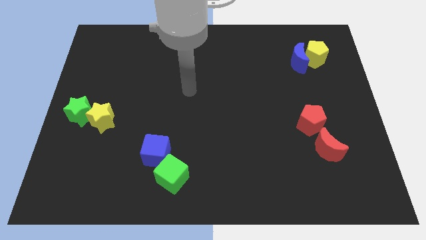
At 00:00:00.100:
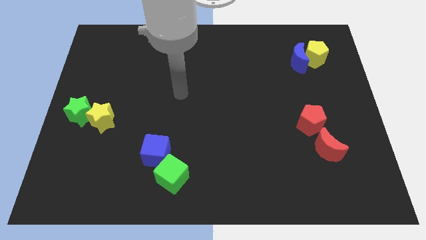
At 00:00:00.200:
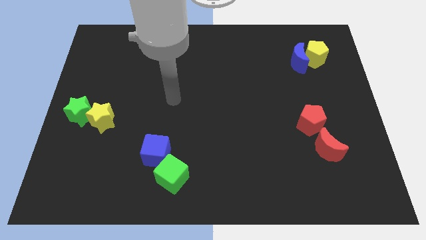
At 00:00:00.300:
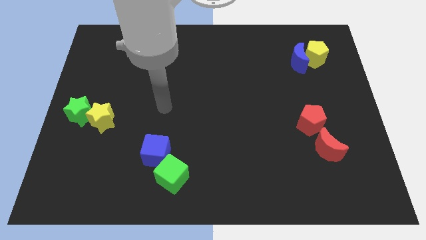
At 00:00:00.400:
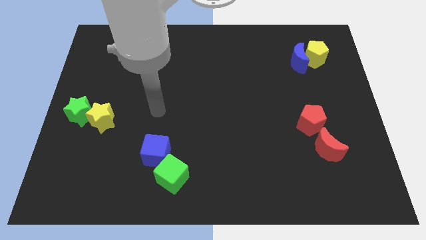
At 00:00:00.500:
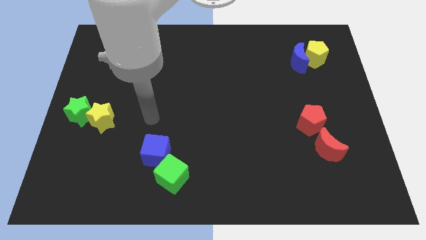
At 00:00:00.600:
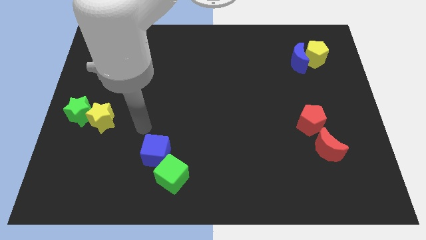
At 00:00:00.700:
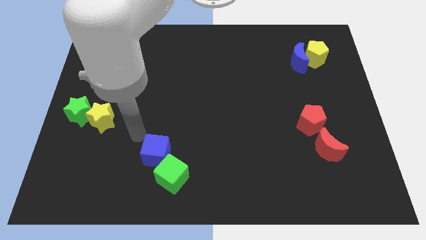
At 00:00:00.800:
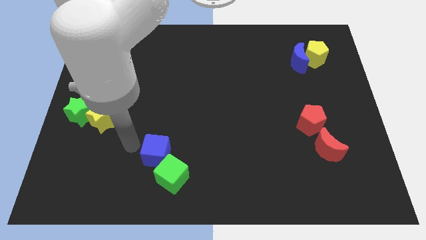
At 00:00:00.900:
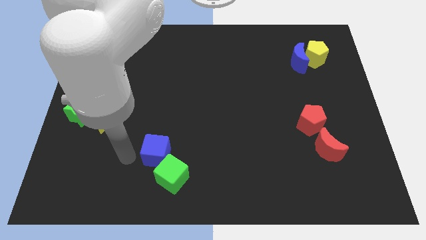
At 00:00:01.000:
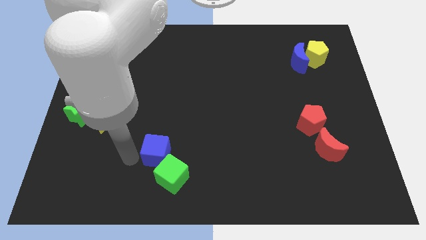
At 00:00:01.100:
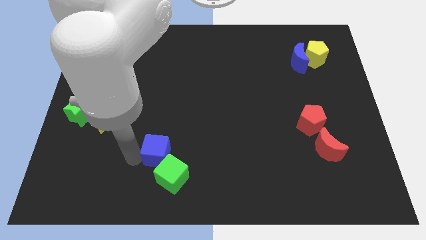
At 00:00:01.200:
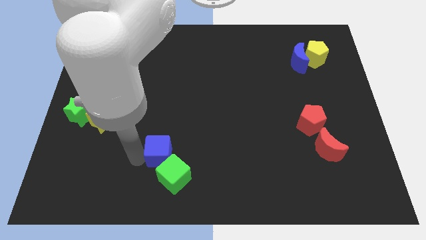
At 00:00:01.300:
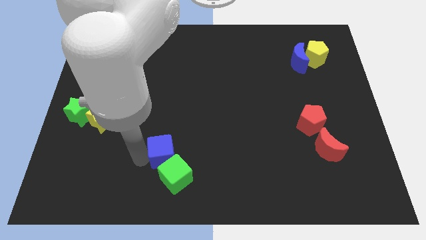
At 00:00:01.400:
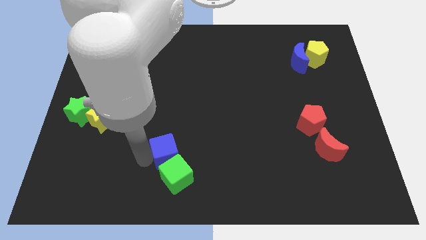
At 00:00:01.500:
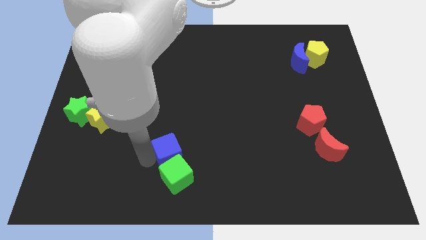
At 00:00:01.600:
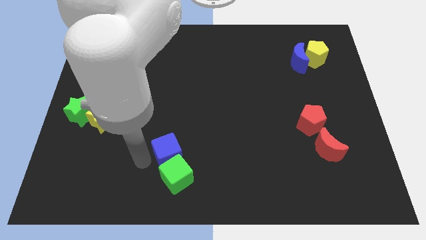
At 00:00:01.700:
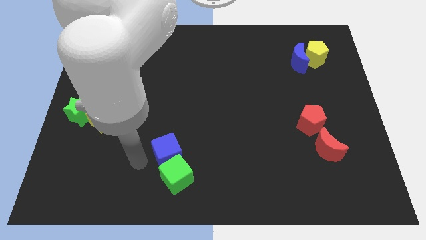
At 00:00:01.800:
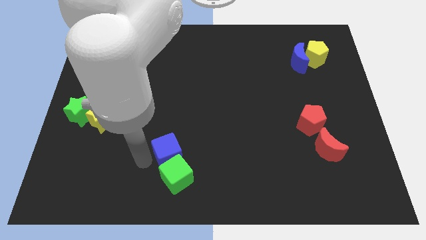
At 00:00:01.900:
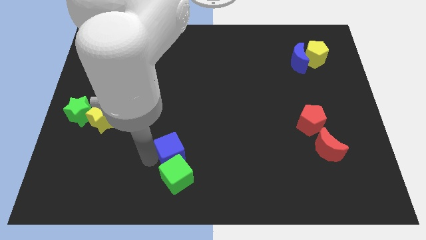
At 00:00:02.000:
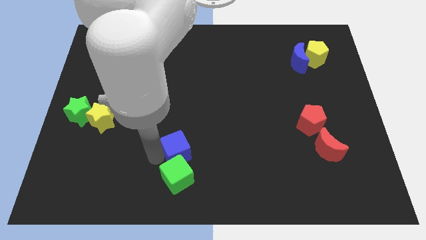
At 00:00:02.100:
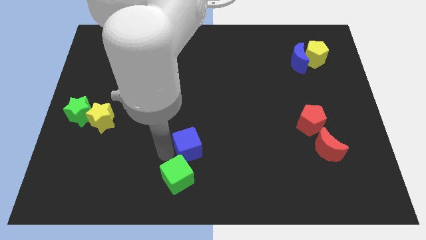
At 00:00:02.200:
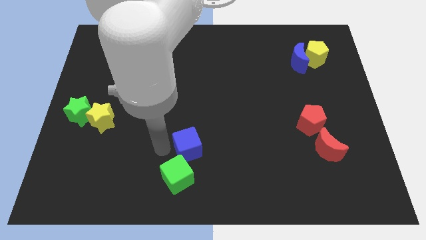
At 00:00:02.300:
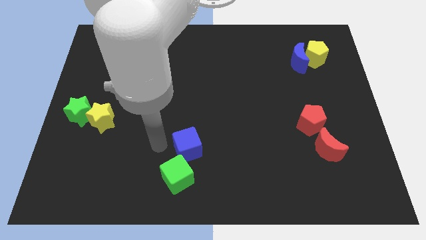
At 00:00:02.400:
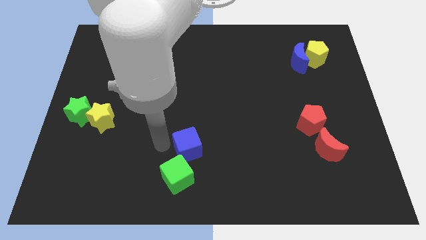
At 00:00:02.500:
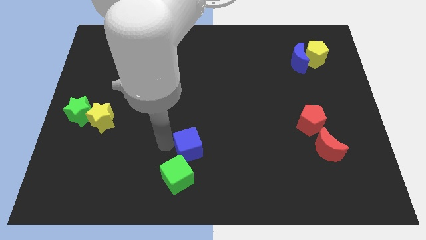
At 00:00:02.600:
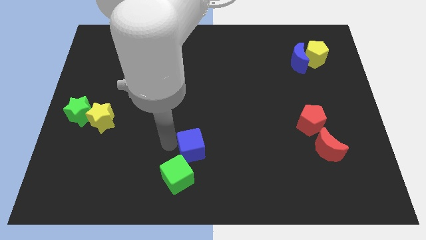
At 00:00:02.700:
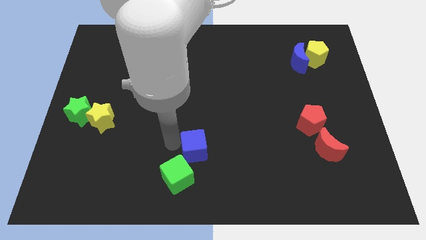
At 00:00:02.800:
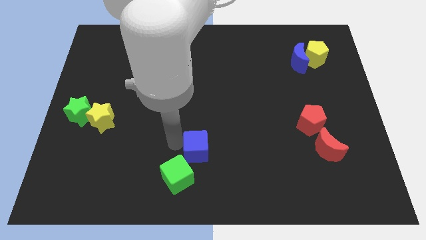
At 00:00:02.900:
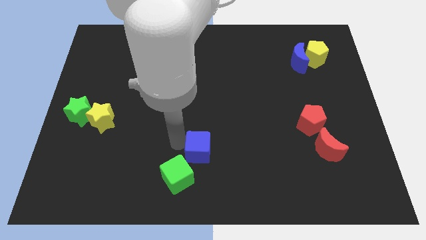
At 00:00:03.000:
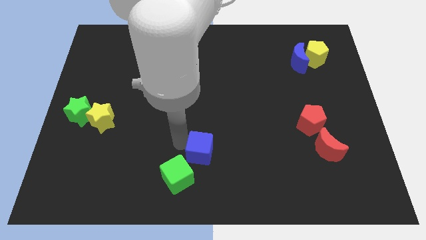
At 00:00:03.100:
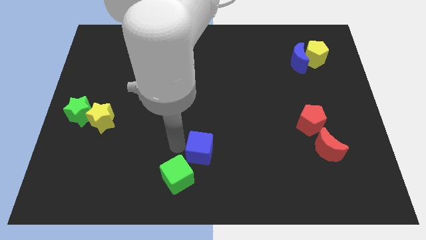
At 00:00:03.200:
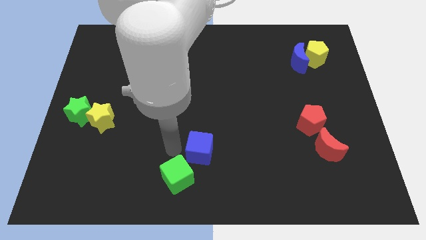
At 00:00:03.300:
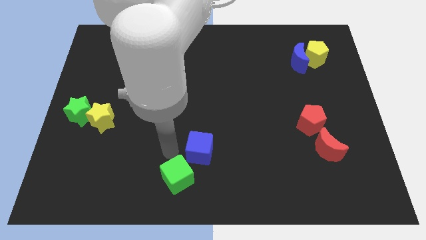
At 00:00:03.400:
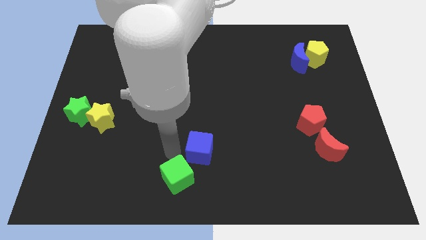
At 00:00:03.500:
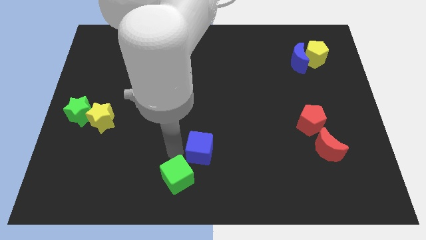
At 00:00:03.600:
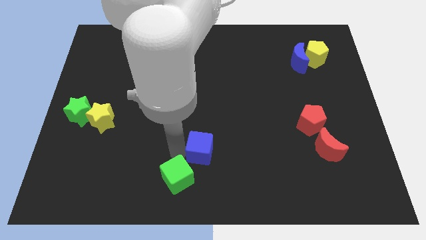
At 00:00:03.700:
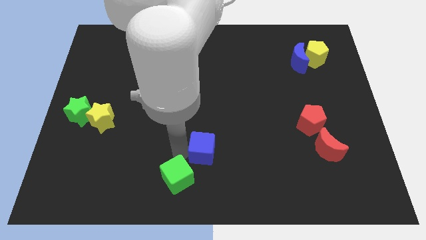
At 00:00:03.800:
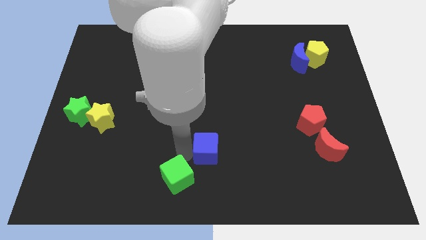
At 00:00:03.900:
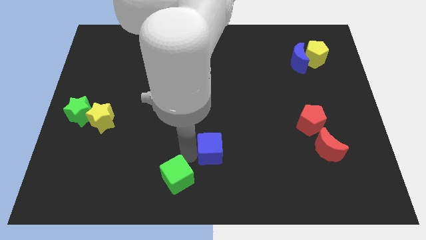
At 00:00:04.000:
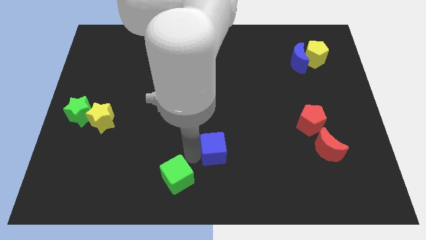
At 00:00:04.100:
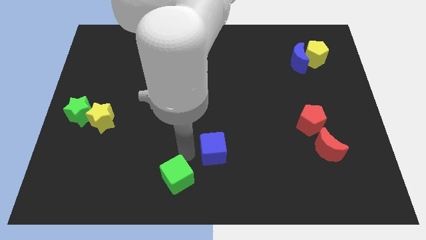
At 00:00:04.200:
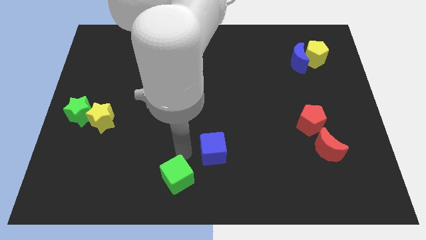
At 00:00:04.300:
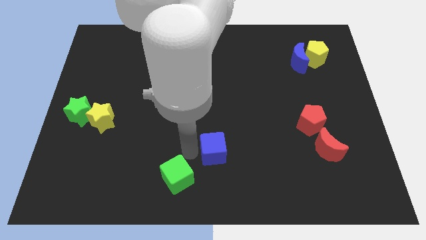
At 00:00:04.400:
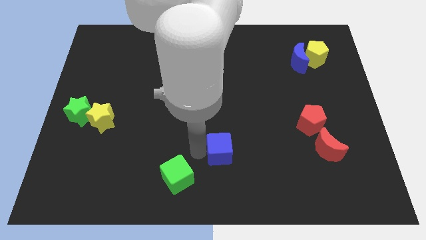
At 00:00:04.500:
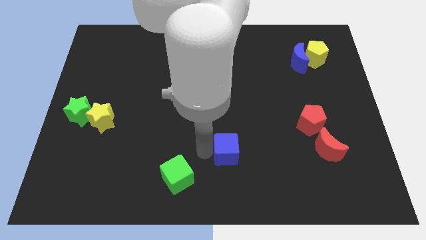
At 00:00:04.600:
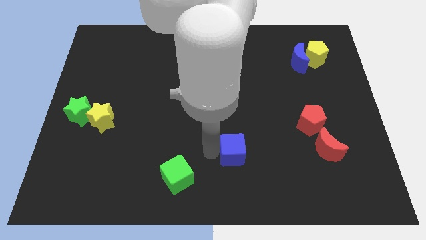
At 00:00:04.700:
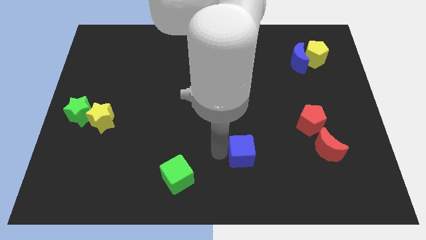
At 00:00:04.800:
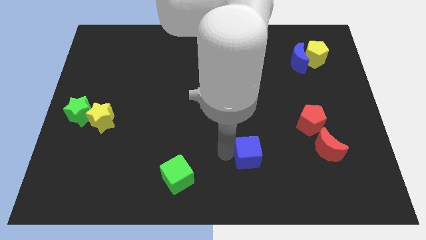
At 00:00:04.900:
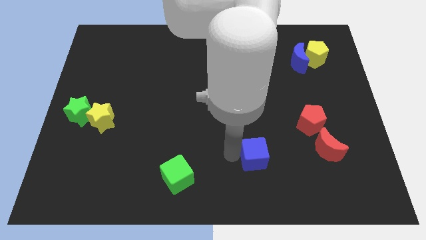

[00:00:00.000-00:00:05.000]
slide the blue cube to the right

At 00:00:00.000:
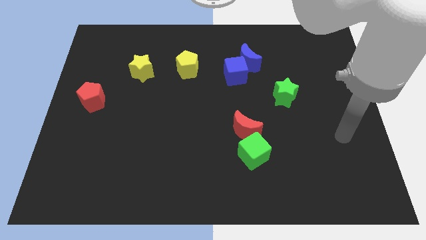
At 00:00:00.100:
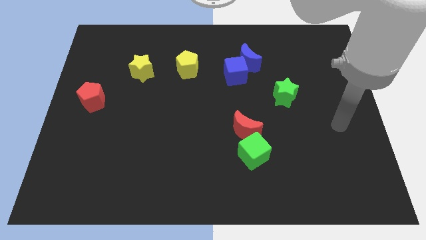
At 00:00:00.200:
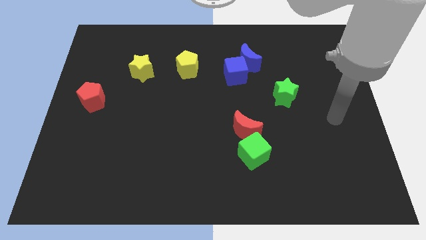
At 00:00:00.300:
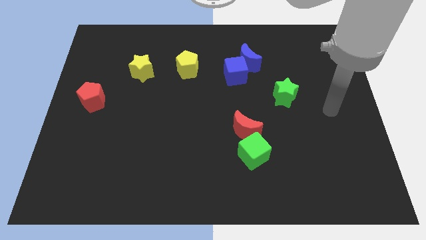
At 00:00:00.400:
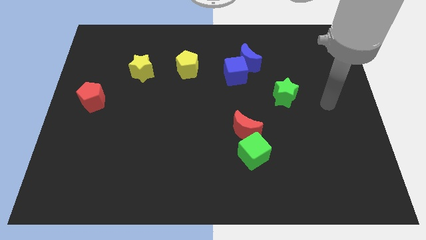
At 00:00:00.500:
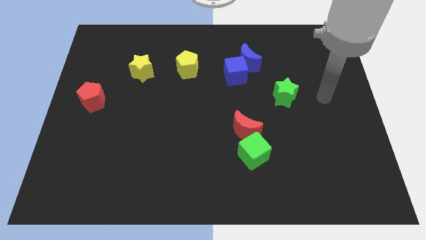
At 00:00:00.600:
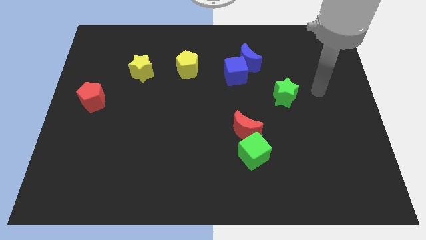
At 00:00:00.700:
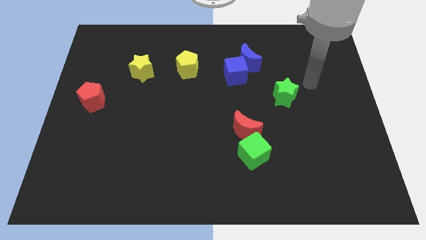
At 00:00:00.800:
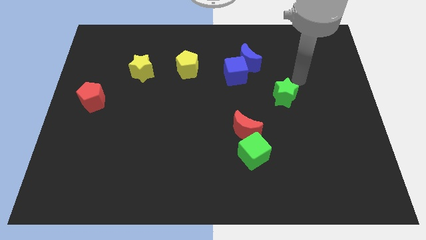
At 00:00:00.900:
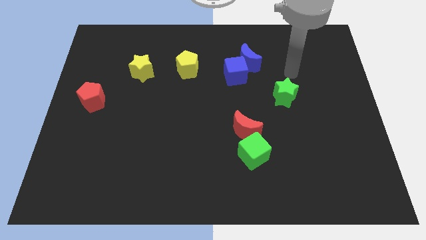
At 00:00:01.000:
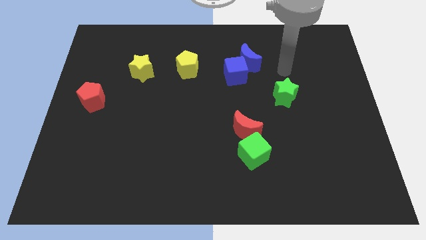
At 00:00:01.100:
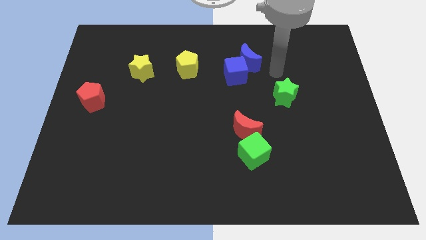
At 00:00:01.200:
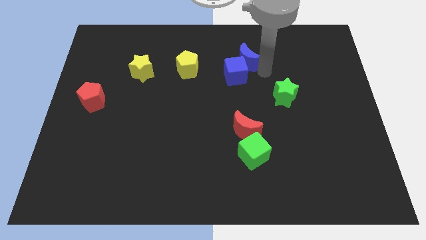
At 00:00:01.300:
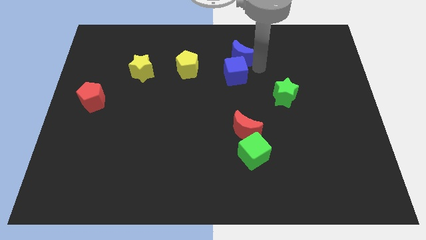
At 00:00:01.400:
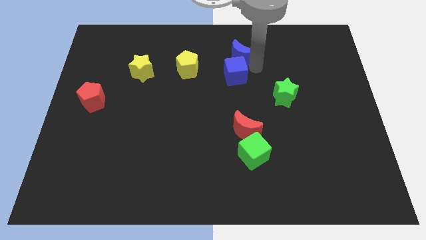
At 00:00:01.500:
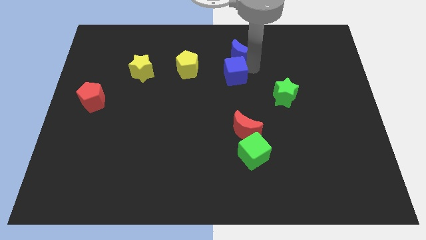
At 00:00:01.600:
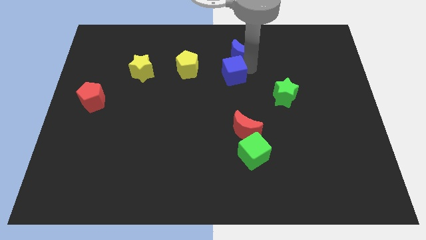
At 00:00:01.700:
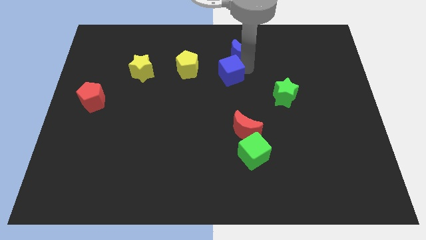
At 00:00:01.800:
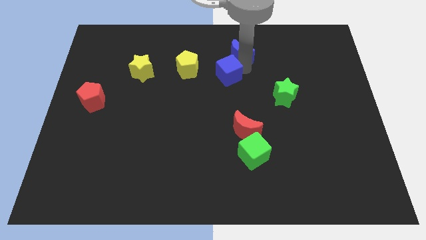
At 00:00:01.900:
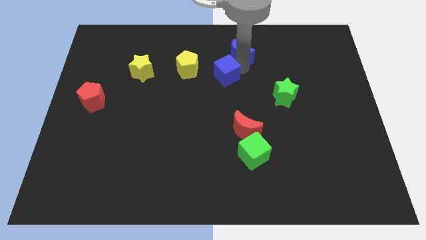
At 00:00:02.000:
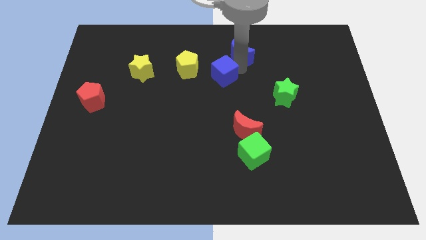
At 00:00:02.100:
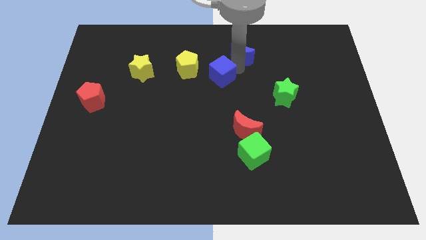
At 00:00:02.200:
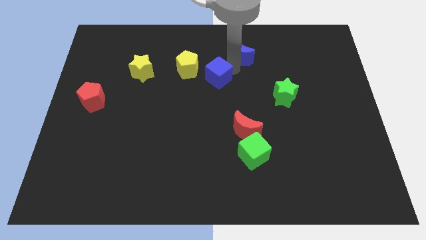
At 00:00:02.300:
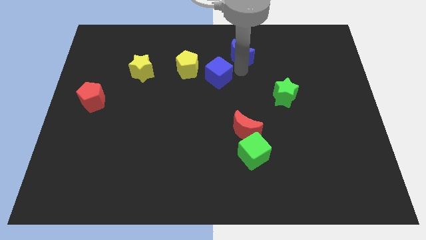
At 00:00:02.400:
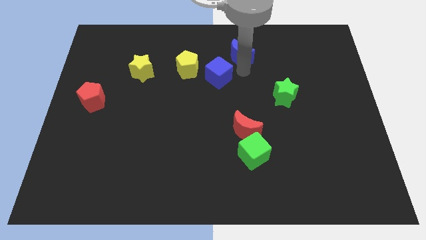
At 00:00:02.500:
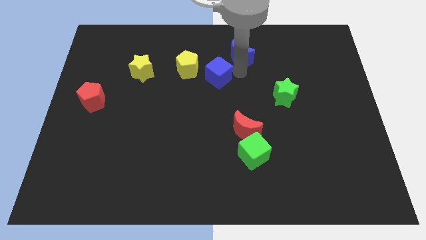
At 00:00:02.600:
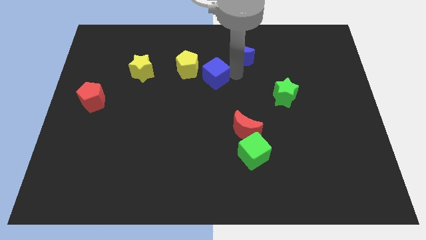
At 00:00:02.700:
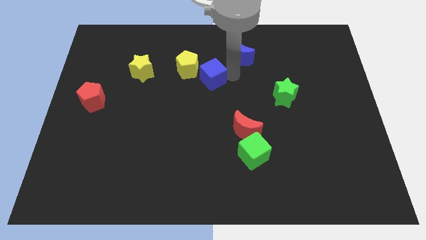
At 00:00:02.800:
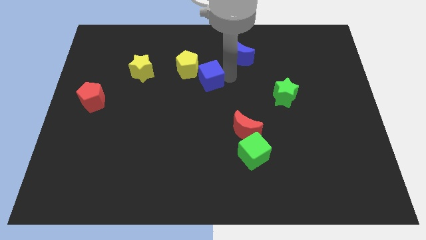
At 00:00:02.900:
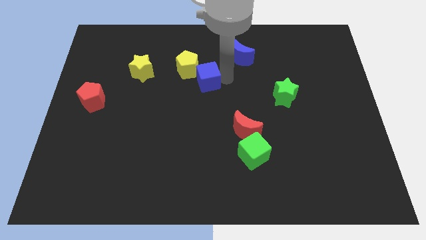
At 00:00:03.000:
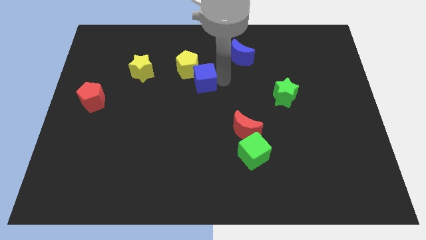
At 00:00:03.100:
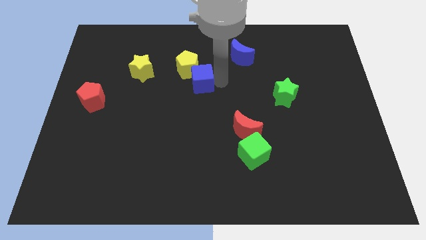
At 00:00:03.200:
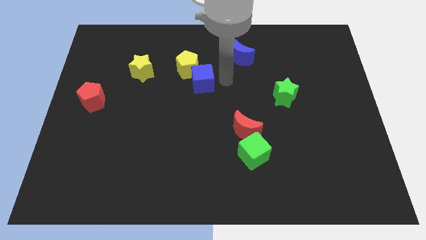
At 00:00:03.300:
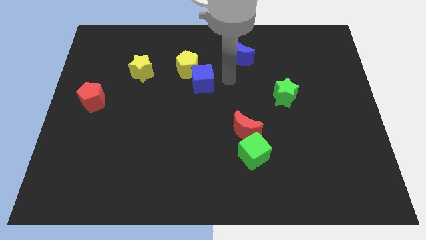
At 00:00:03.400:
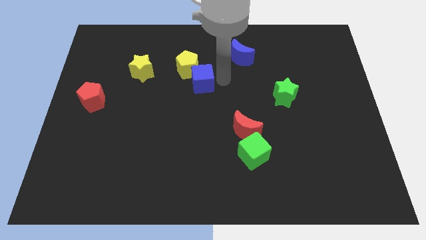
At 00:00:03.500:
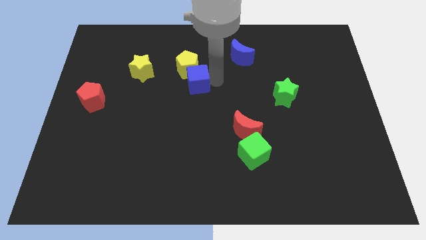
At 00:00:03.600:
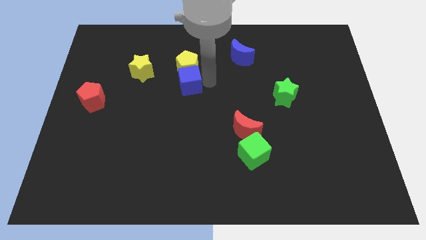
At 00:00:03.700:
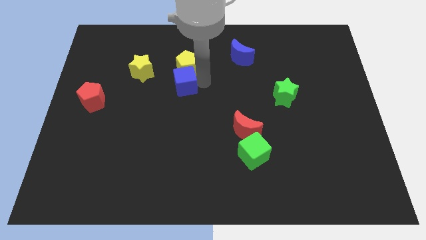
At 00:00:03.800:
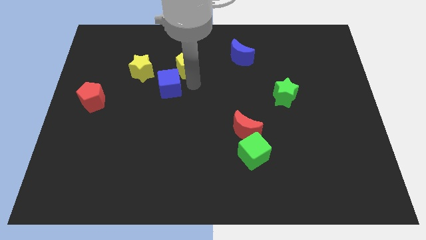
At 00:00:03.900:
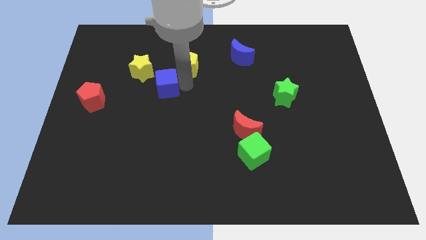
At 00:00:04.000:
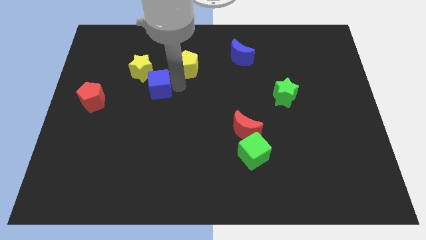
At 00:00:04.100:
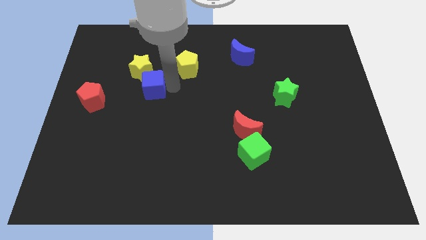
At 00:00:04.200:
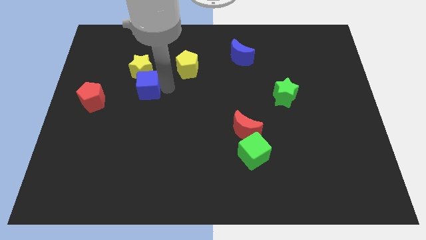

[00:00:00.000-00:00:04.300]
slide the blue cube left
